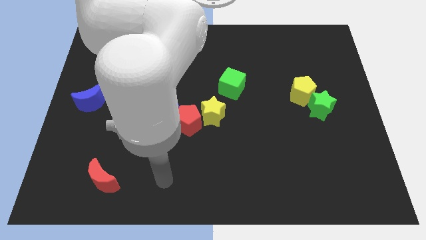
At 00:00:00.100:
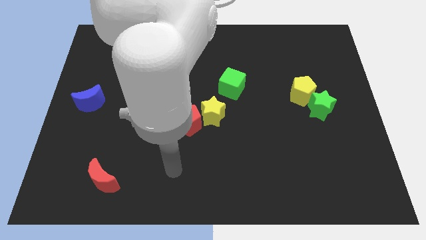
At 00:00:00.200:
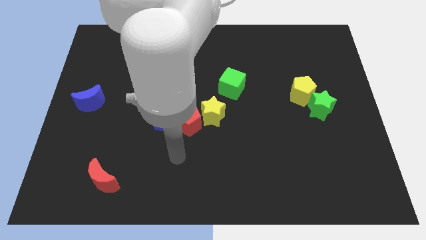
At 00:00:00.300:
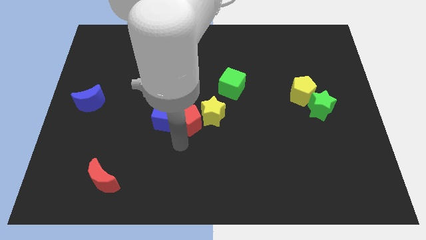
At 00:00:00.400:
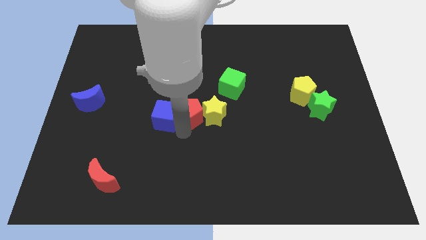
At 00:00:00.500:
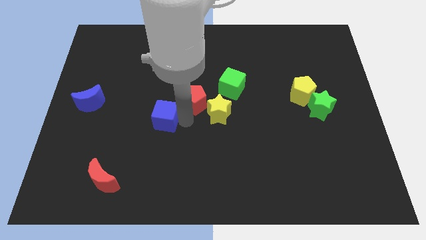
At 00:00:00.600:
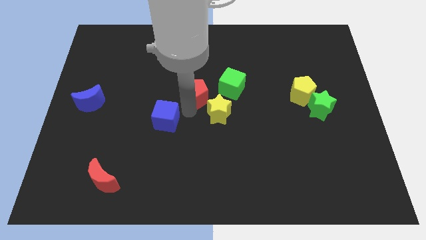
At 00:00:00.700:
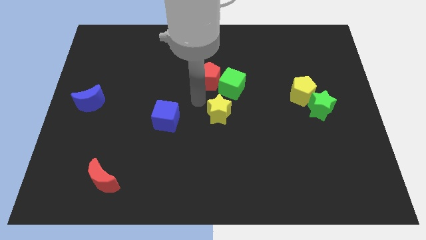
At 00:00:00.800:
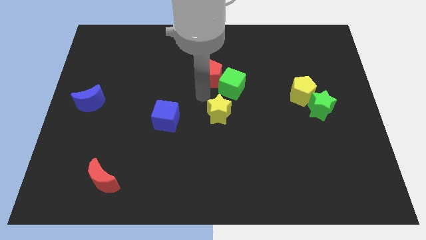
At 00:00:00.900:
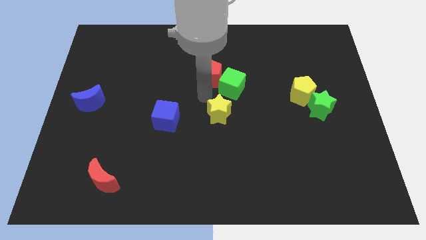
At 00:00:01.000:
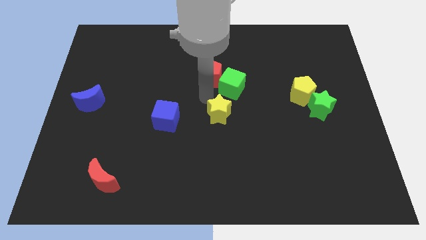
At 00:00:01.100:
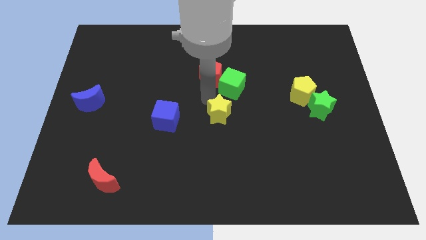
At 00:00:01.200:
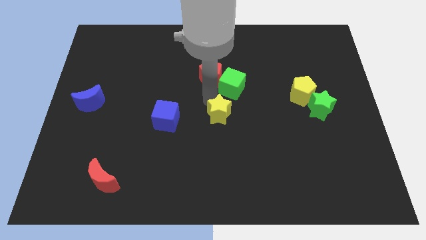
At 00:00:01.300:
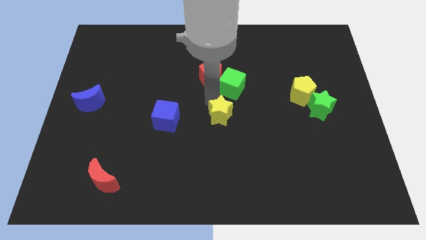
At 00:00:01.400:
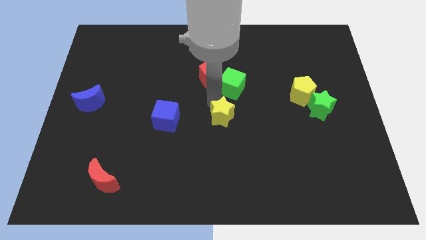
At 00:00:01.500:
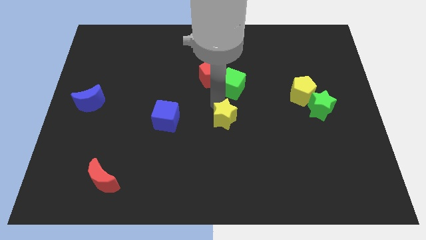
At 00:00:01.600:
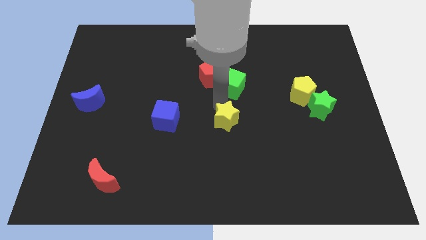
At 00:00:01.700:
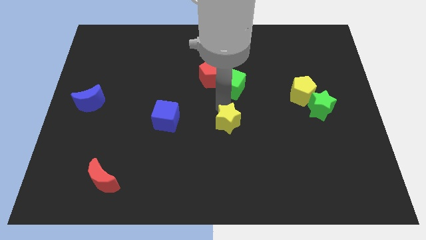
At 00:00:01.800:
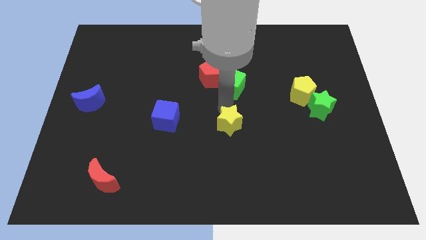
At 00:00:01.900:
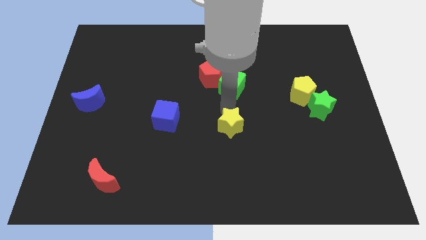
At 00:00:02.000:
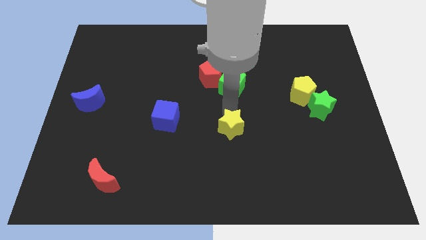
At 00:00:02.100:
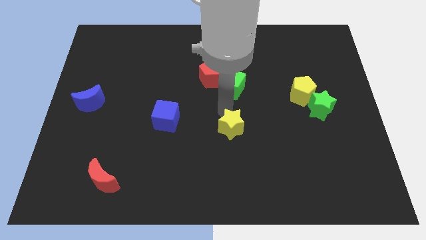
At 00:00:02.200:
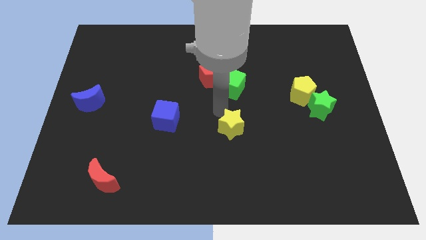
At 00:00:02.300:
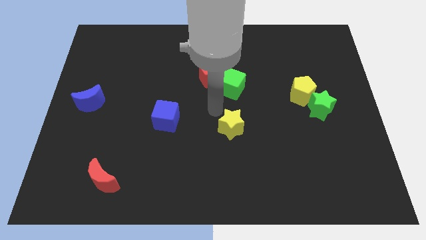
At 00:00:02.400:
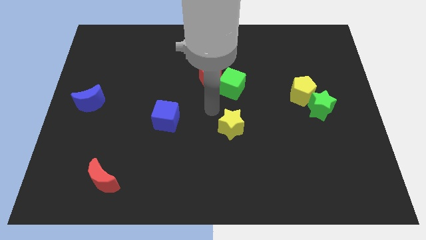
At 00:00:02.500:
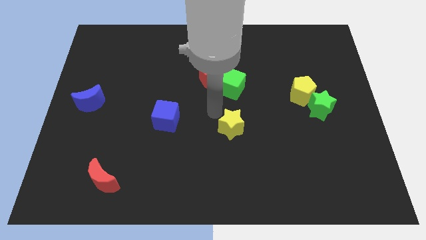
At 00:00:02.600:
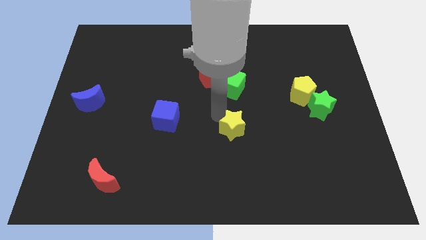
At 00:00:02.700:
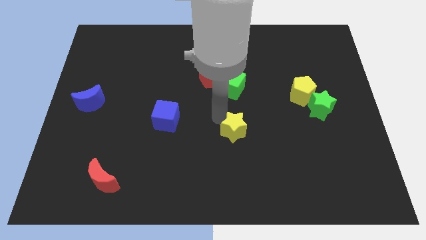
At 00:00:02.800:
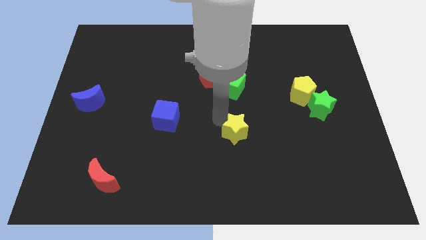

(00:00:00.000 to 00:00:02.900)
move the yellow star a bit diagonally downwards and to the right

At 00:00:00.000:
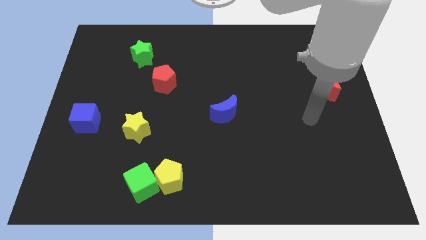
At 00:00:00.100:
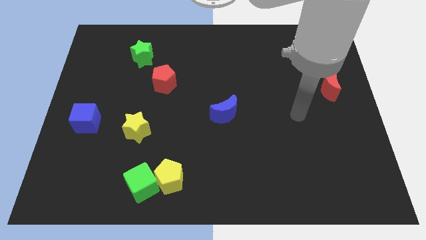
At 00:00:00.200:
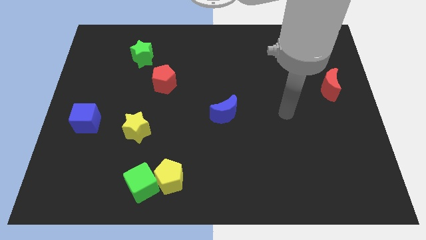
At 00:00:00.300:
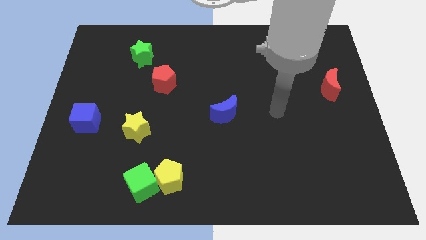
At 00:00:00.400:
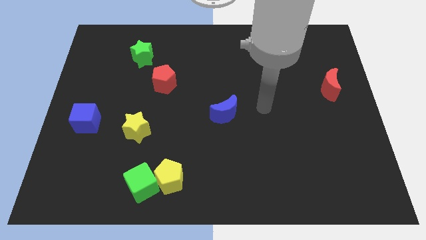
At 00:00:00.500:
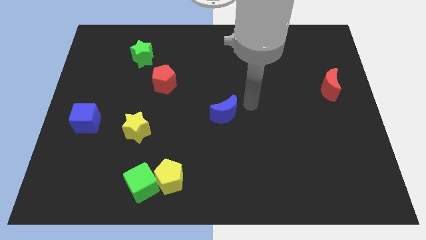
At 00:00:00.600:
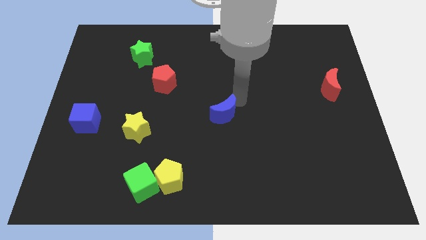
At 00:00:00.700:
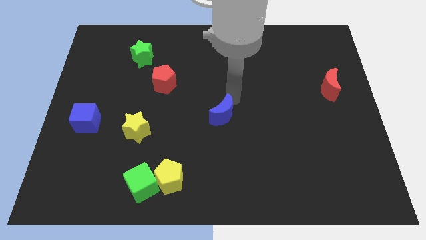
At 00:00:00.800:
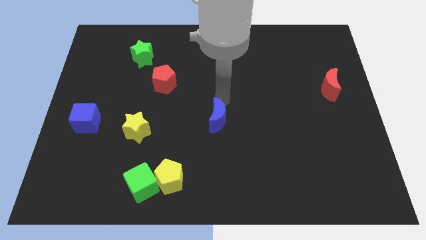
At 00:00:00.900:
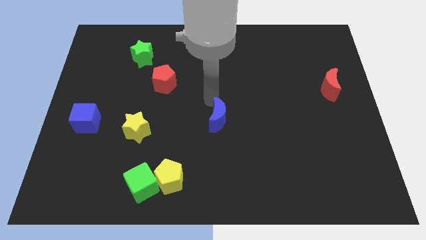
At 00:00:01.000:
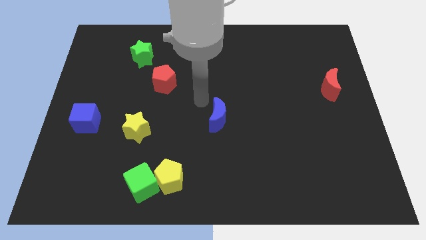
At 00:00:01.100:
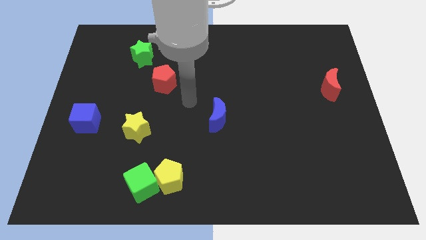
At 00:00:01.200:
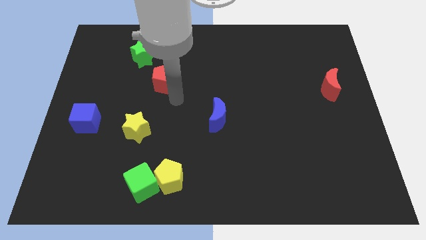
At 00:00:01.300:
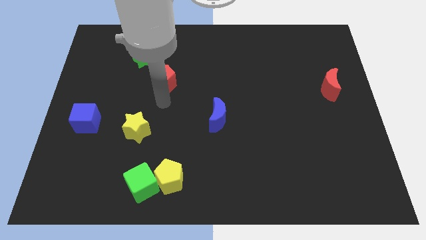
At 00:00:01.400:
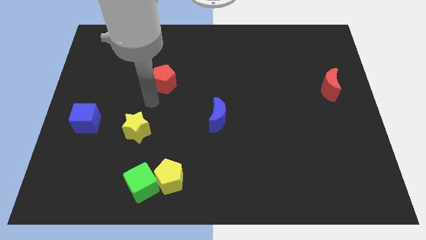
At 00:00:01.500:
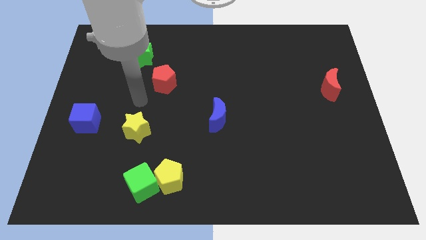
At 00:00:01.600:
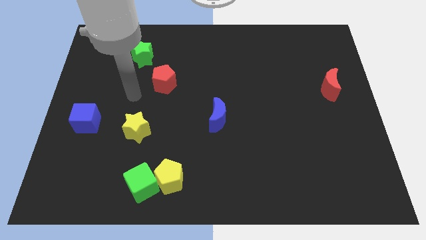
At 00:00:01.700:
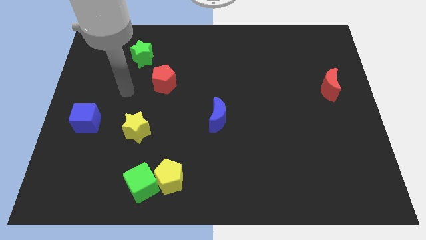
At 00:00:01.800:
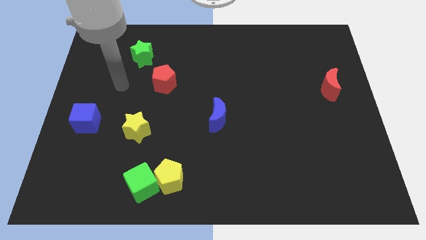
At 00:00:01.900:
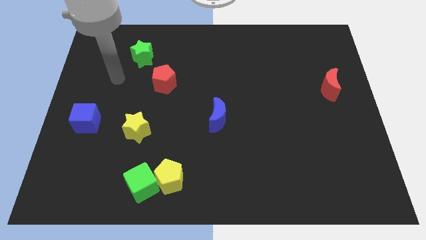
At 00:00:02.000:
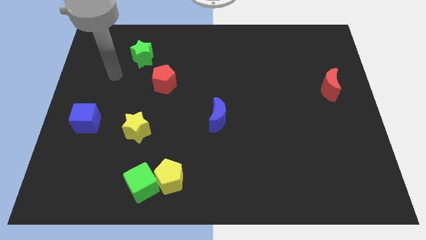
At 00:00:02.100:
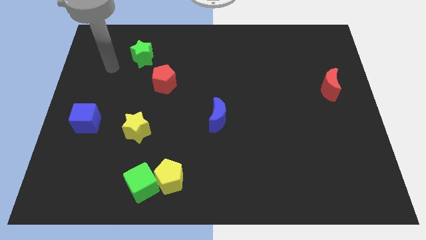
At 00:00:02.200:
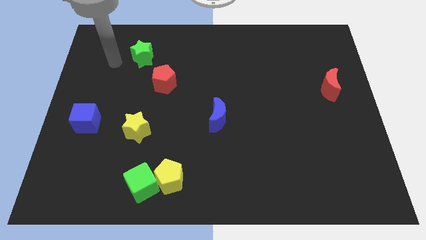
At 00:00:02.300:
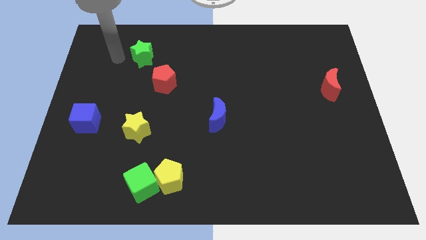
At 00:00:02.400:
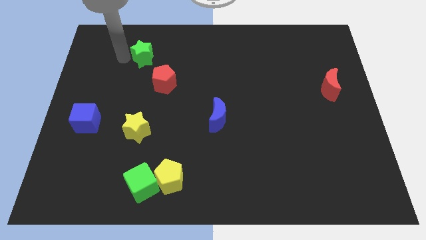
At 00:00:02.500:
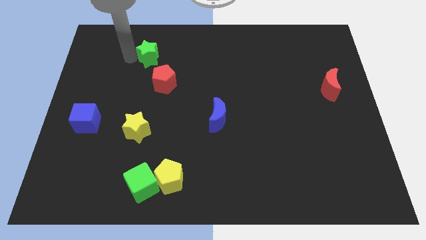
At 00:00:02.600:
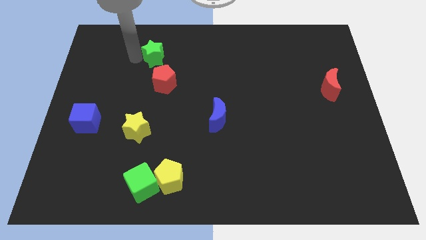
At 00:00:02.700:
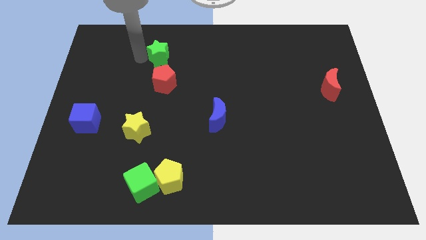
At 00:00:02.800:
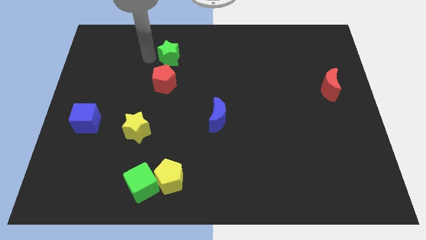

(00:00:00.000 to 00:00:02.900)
push the green star right slightly

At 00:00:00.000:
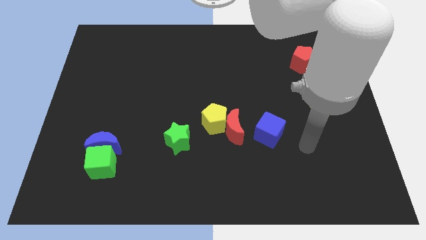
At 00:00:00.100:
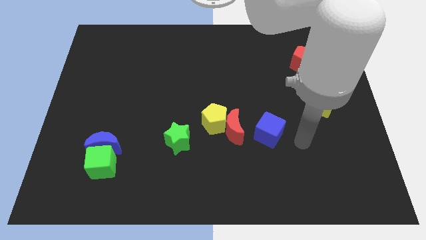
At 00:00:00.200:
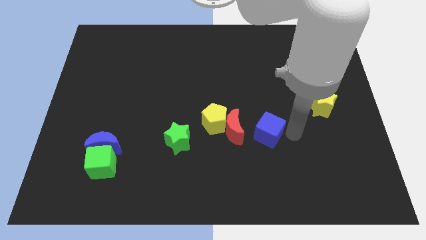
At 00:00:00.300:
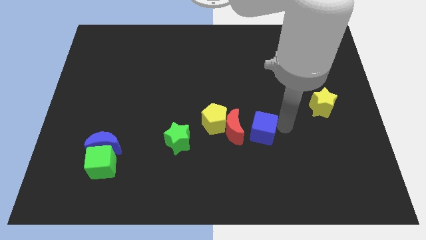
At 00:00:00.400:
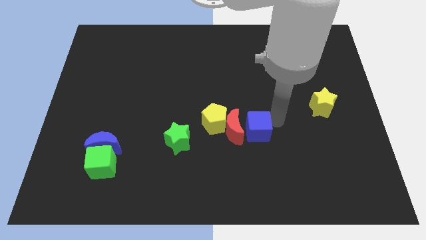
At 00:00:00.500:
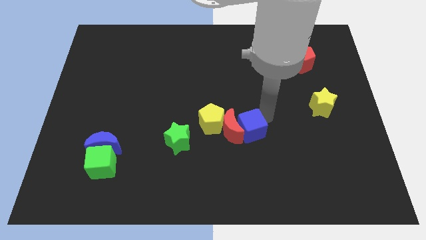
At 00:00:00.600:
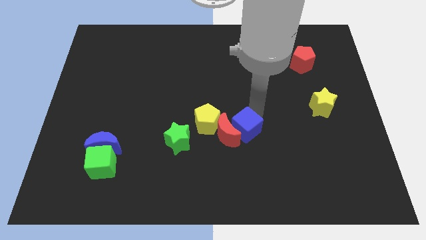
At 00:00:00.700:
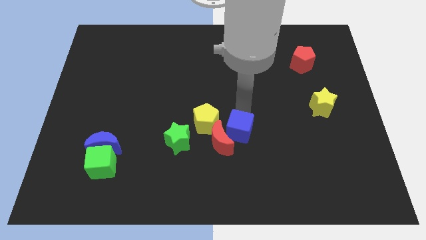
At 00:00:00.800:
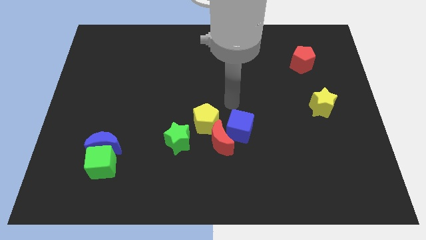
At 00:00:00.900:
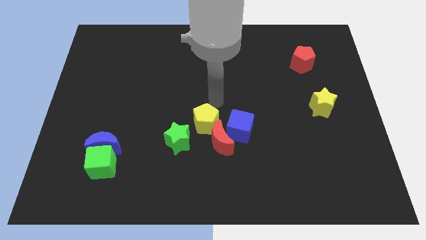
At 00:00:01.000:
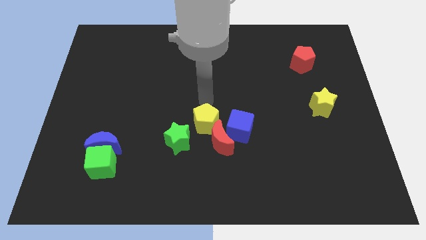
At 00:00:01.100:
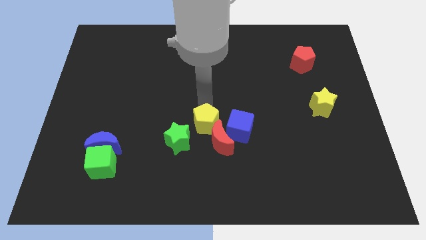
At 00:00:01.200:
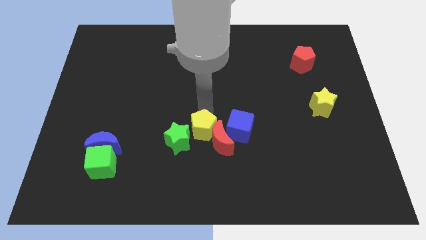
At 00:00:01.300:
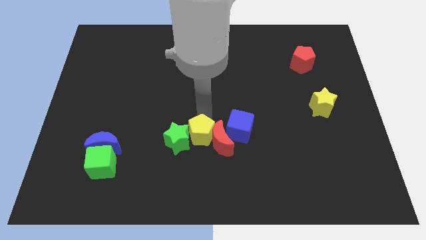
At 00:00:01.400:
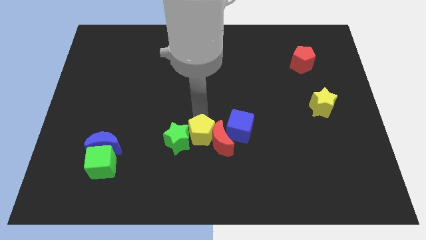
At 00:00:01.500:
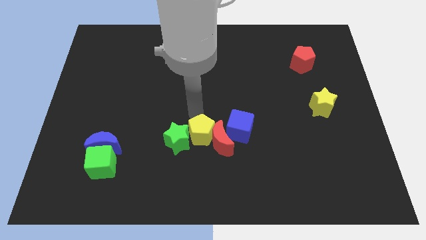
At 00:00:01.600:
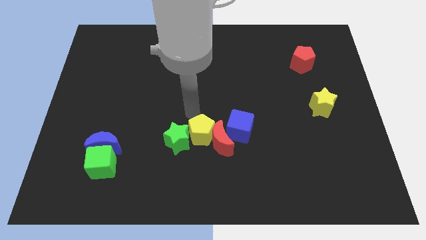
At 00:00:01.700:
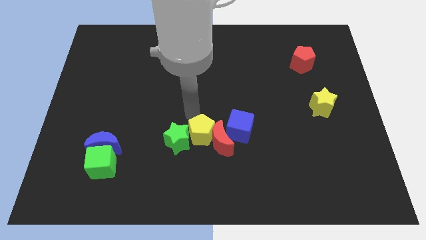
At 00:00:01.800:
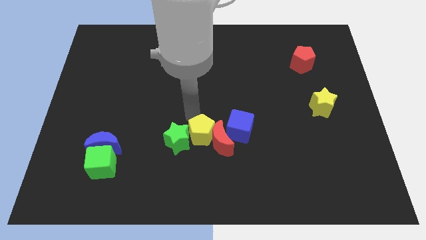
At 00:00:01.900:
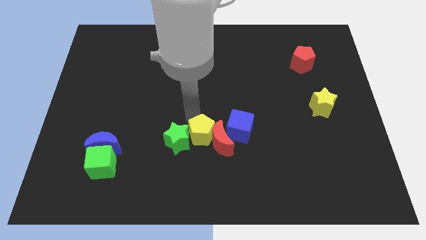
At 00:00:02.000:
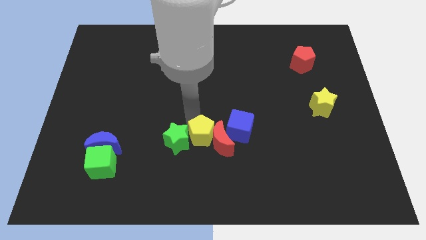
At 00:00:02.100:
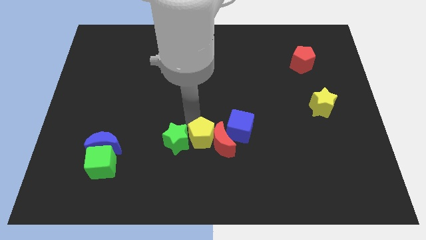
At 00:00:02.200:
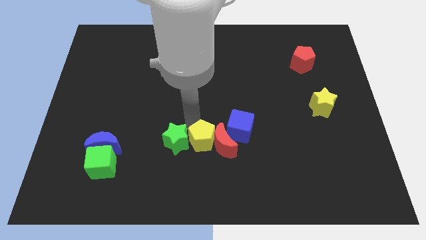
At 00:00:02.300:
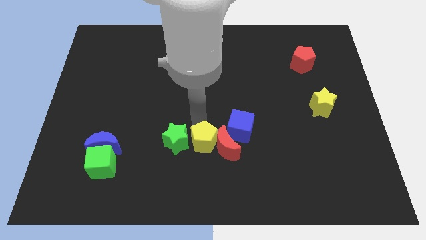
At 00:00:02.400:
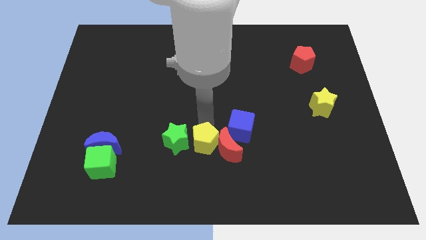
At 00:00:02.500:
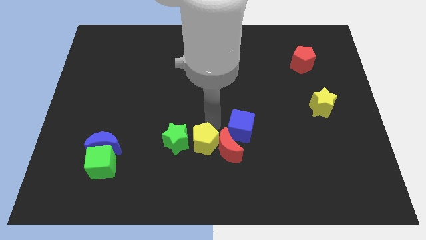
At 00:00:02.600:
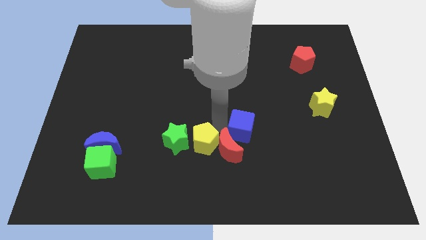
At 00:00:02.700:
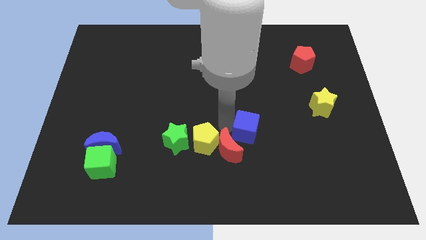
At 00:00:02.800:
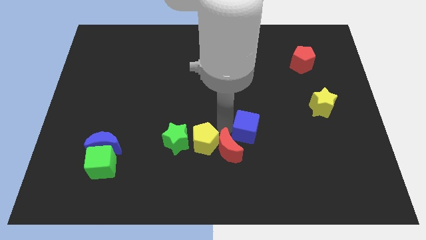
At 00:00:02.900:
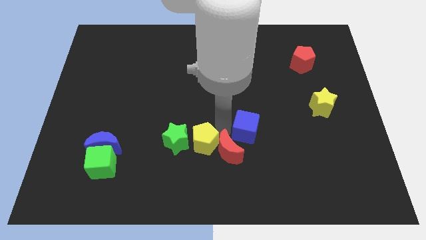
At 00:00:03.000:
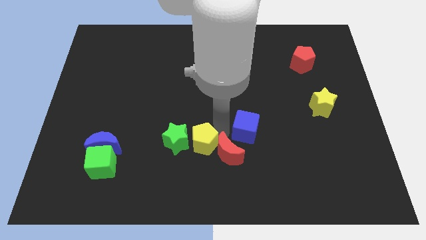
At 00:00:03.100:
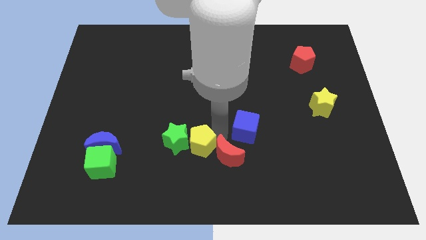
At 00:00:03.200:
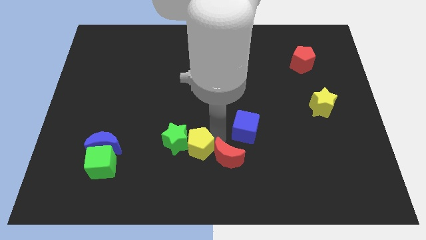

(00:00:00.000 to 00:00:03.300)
move the yellow pentagon a little bit down and to the left diagonally
